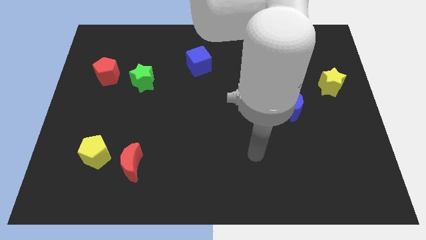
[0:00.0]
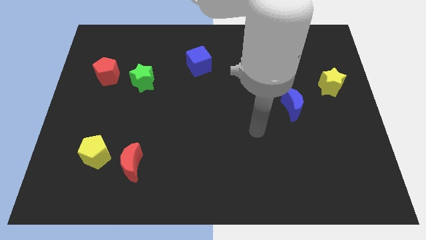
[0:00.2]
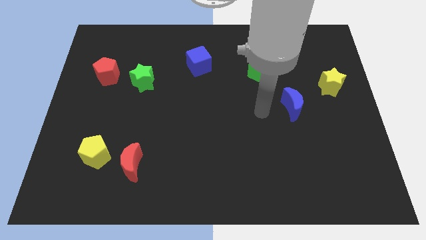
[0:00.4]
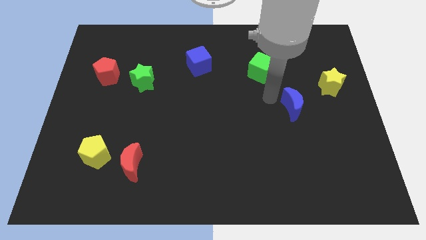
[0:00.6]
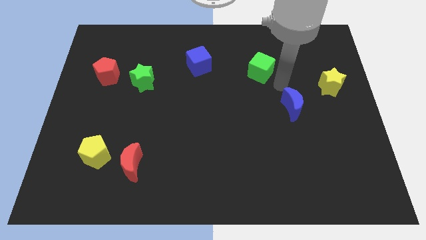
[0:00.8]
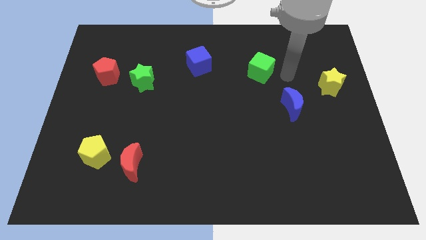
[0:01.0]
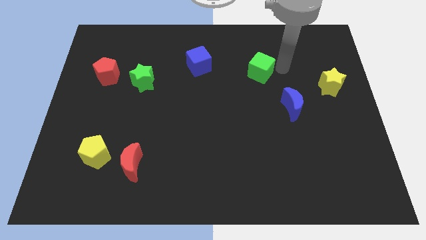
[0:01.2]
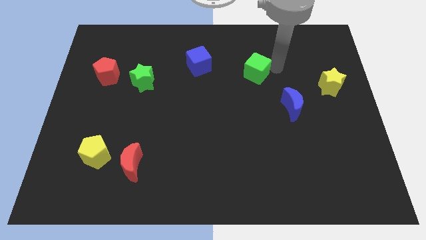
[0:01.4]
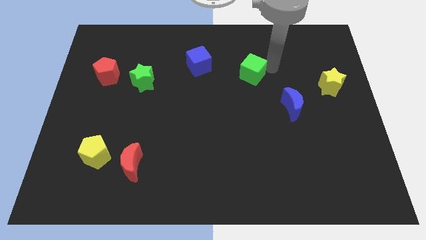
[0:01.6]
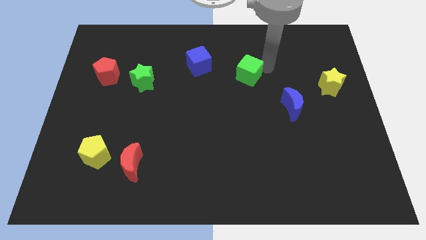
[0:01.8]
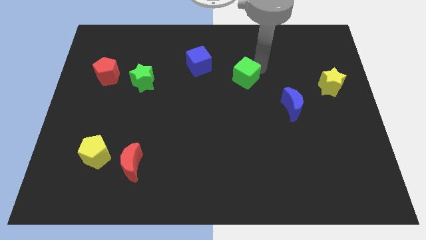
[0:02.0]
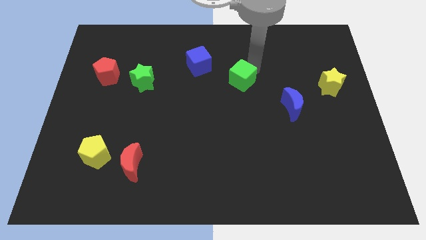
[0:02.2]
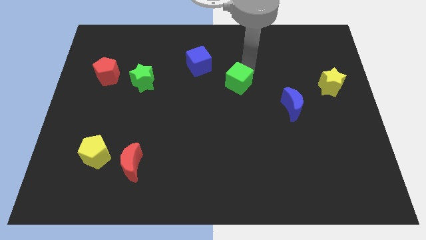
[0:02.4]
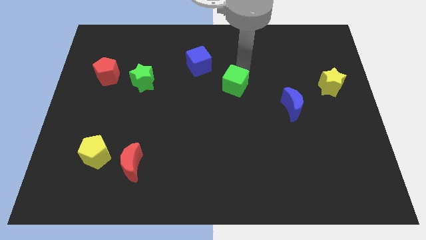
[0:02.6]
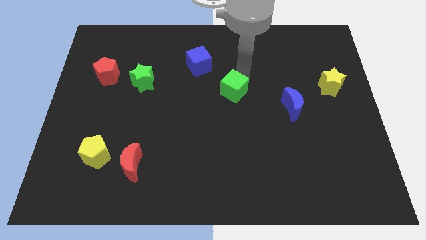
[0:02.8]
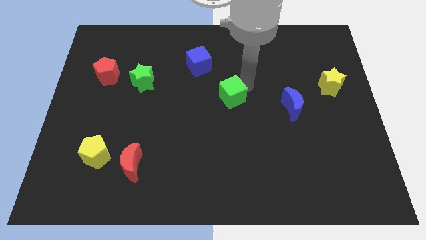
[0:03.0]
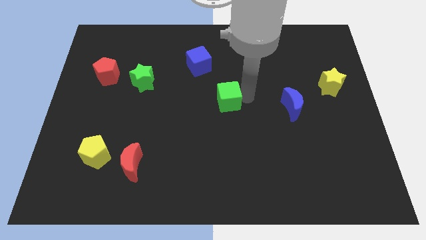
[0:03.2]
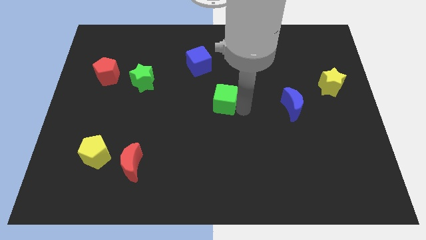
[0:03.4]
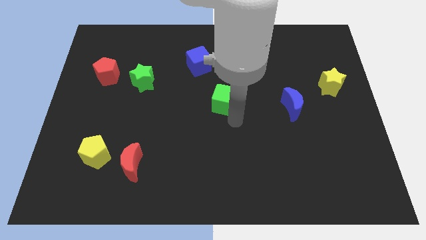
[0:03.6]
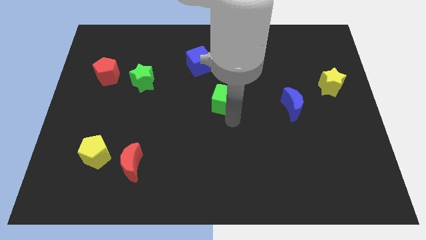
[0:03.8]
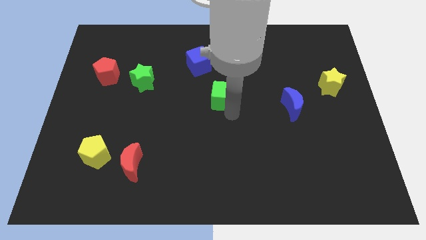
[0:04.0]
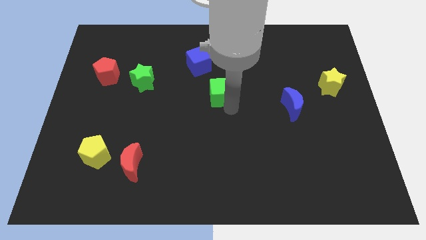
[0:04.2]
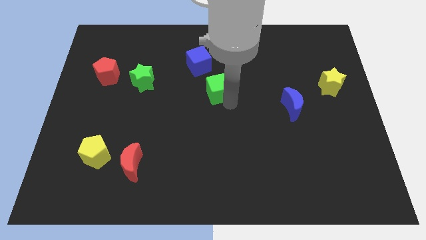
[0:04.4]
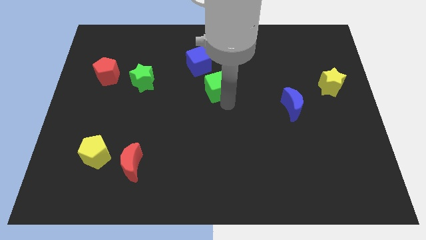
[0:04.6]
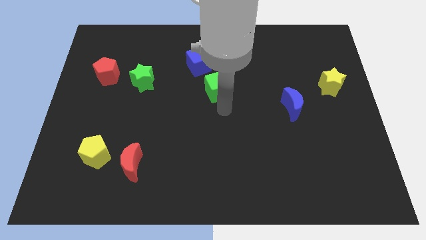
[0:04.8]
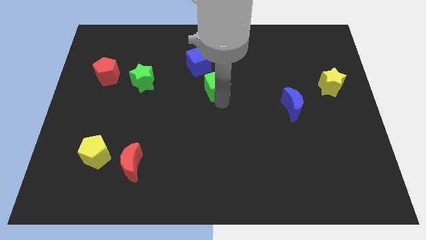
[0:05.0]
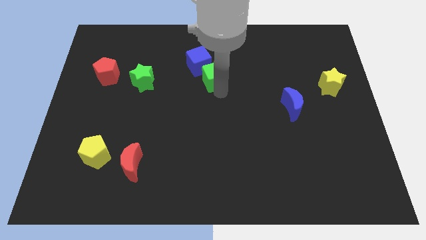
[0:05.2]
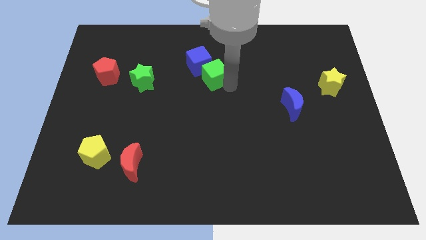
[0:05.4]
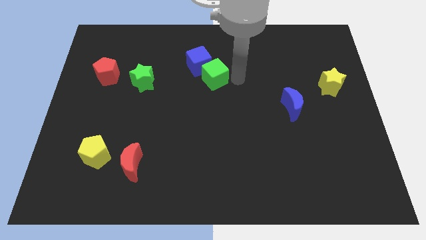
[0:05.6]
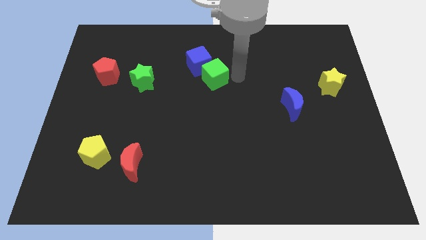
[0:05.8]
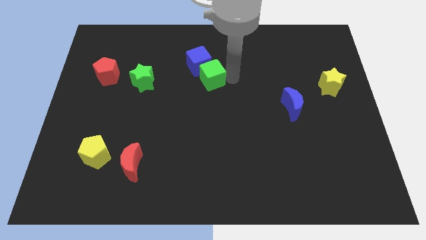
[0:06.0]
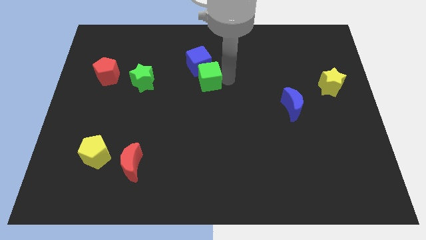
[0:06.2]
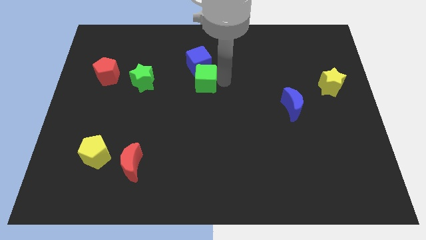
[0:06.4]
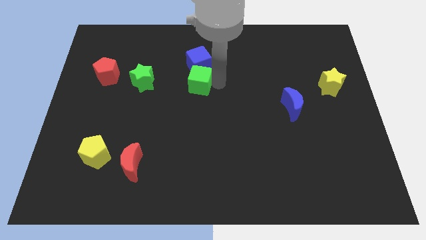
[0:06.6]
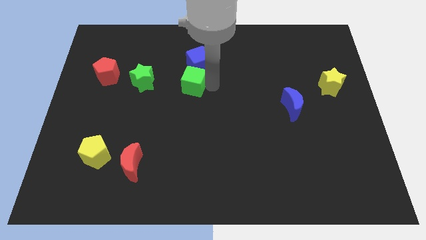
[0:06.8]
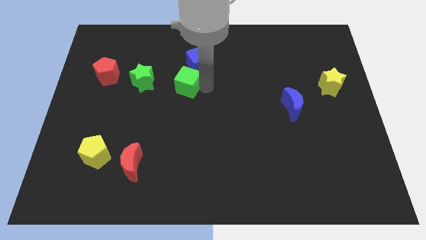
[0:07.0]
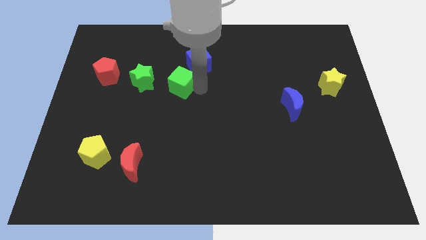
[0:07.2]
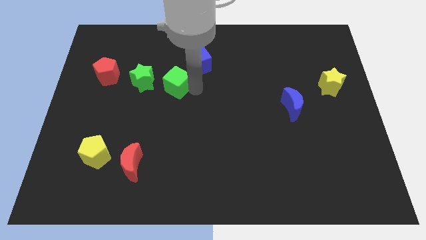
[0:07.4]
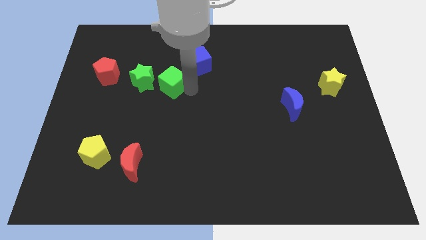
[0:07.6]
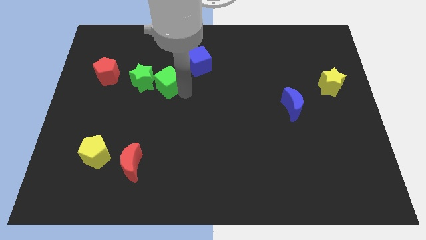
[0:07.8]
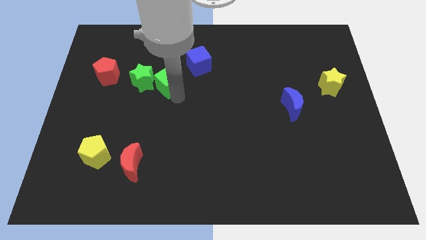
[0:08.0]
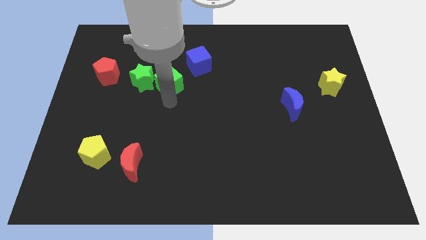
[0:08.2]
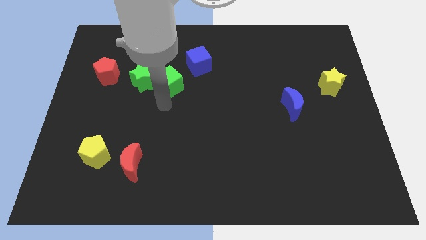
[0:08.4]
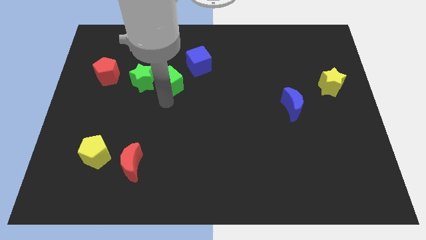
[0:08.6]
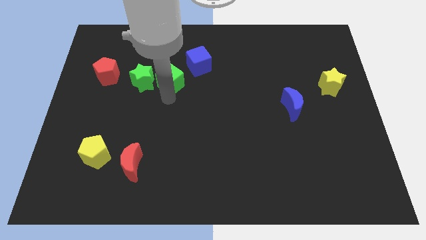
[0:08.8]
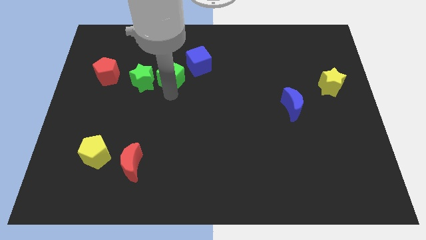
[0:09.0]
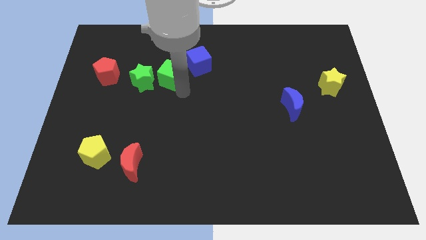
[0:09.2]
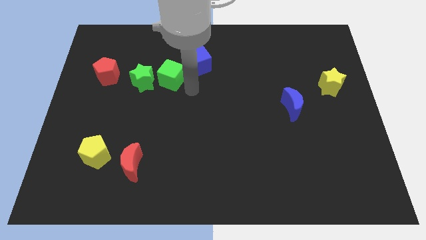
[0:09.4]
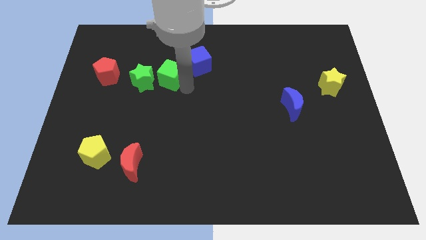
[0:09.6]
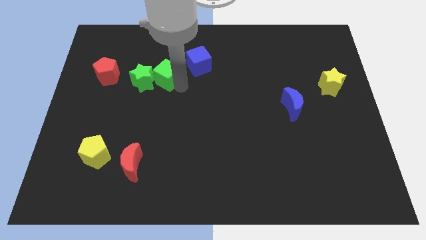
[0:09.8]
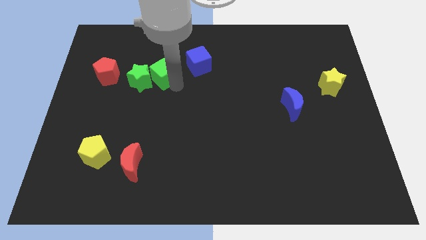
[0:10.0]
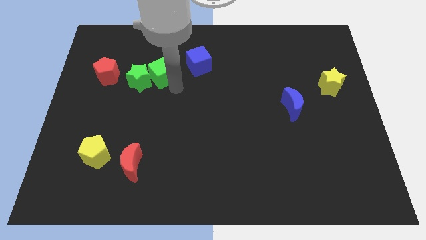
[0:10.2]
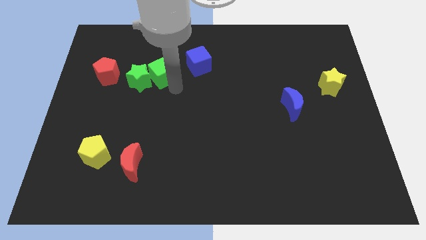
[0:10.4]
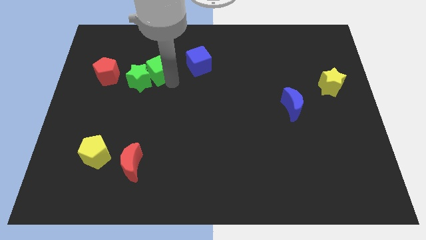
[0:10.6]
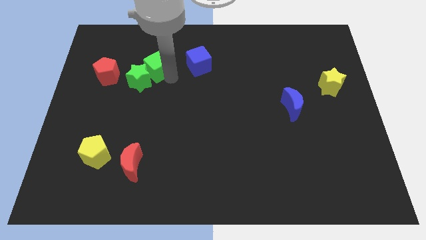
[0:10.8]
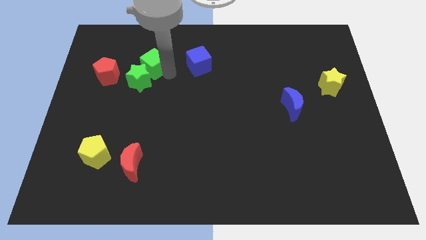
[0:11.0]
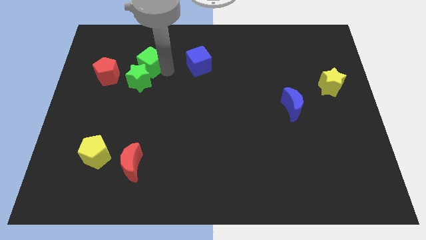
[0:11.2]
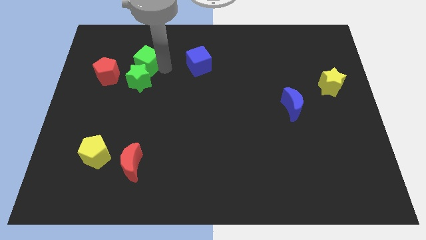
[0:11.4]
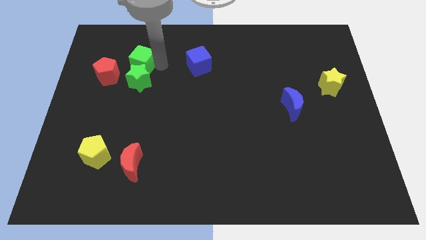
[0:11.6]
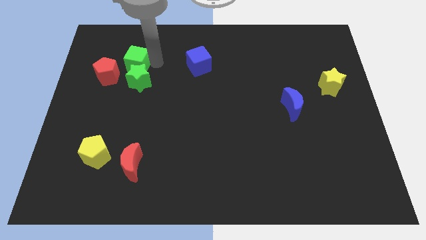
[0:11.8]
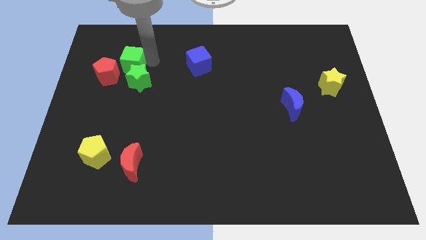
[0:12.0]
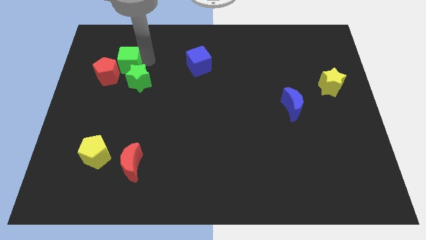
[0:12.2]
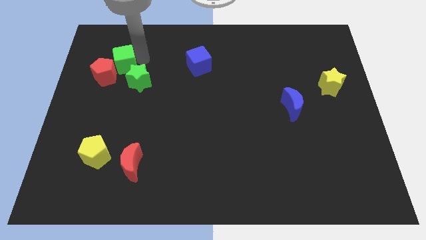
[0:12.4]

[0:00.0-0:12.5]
slide the green cube to the red pentagon
